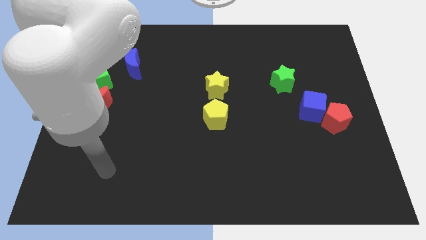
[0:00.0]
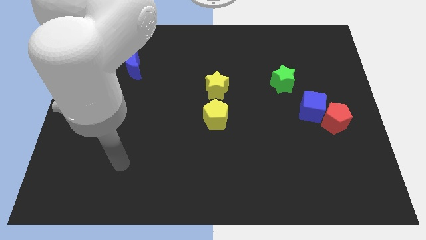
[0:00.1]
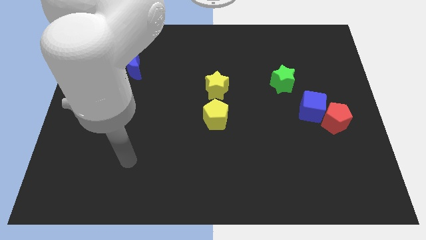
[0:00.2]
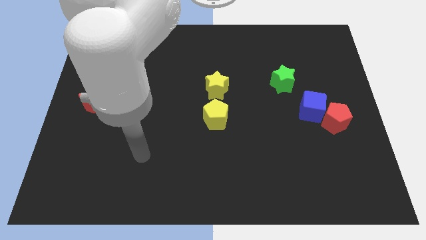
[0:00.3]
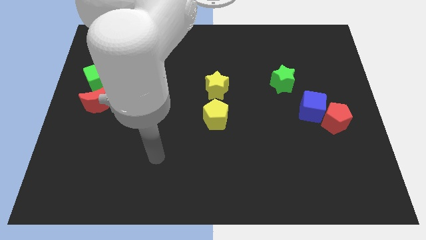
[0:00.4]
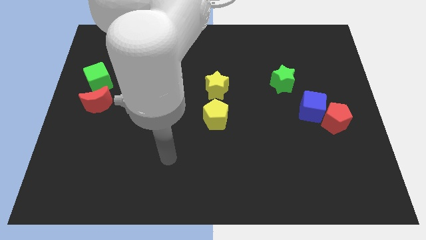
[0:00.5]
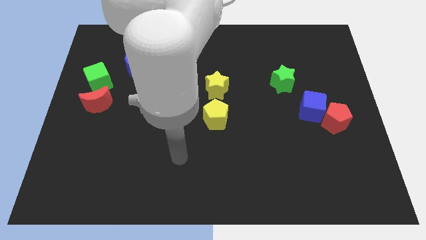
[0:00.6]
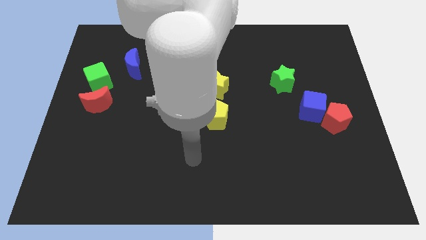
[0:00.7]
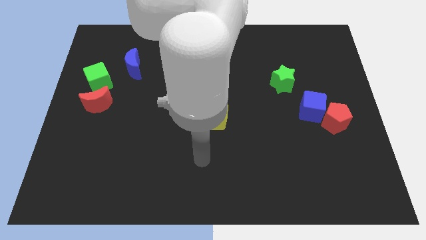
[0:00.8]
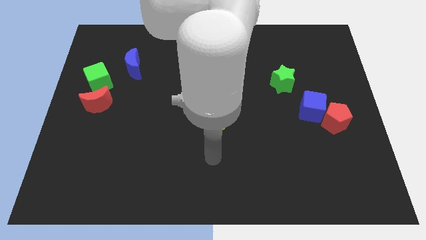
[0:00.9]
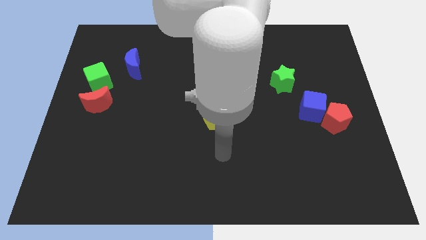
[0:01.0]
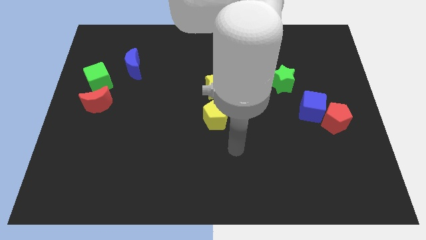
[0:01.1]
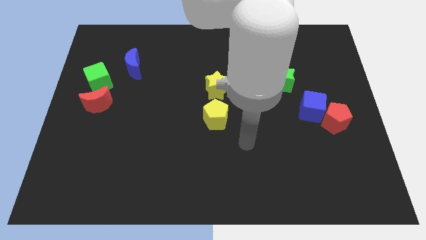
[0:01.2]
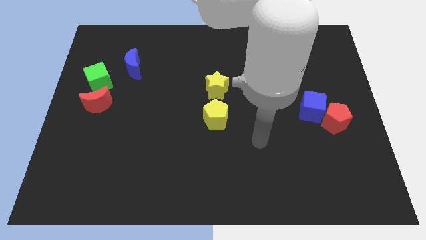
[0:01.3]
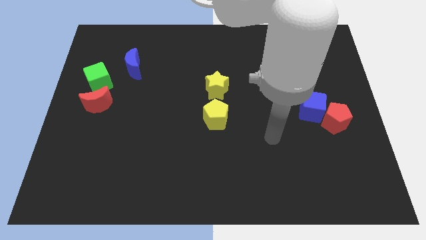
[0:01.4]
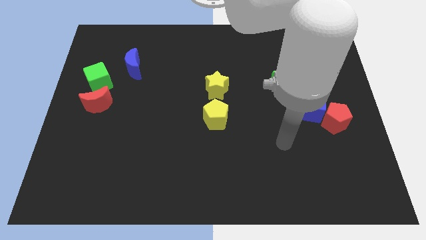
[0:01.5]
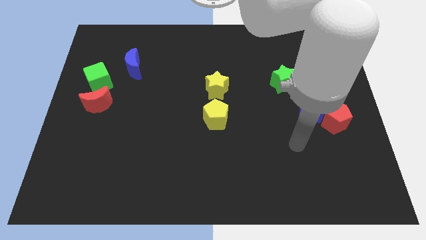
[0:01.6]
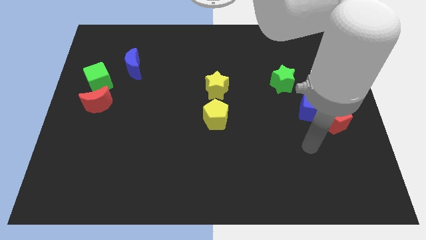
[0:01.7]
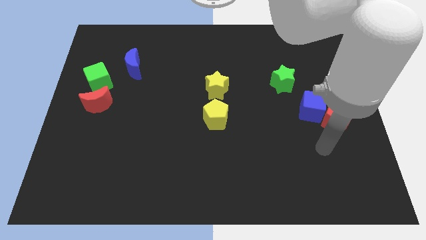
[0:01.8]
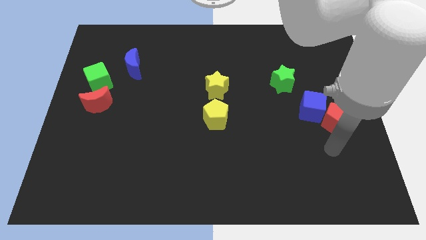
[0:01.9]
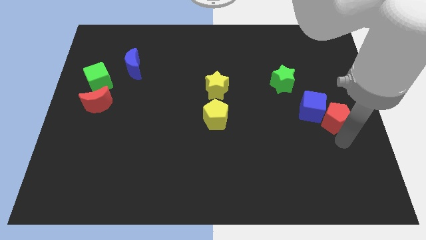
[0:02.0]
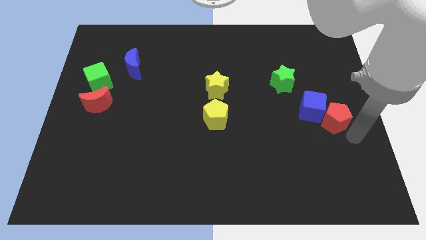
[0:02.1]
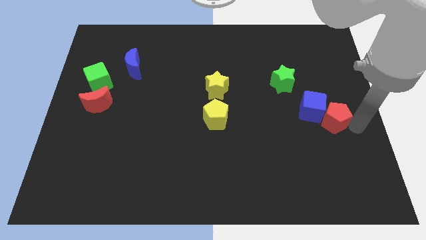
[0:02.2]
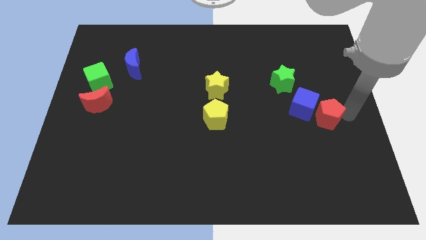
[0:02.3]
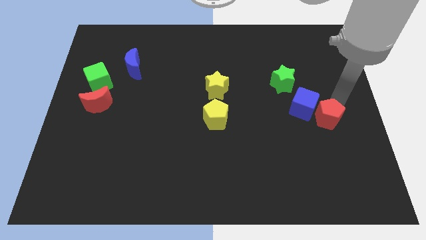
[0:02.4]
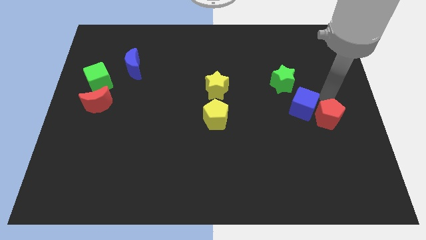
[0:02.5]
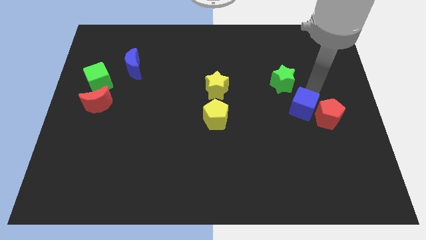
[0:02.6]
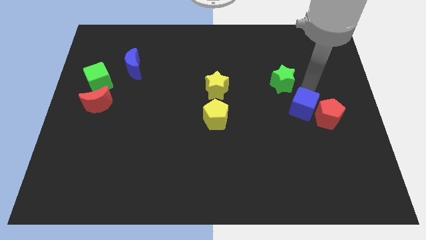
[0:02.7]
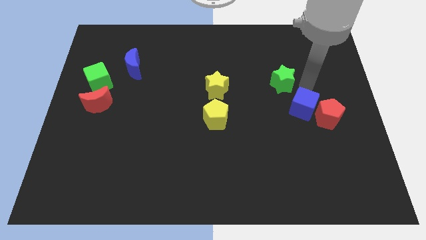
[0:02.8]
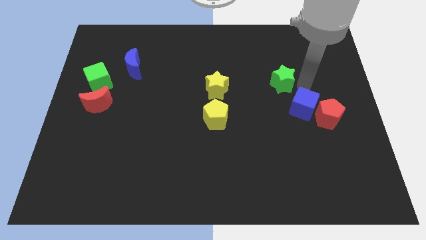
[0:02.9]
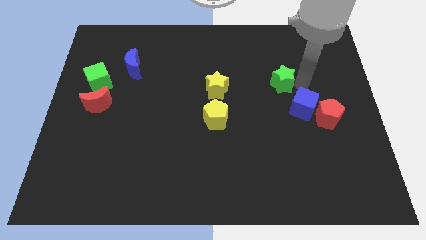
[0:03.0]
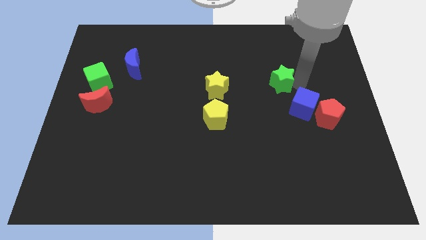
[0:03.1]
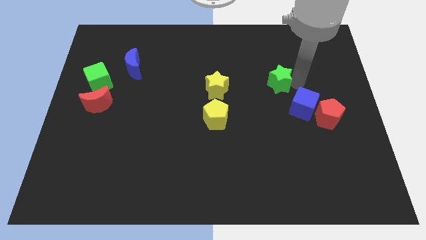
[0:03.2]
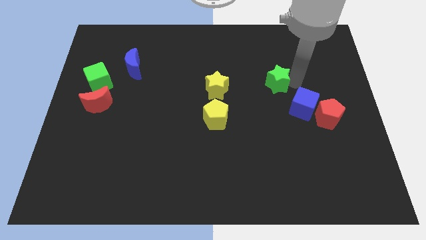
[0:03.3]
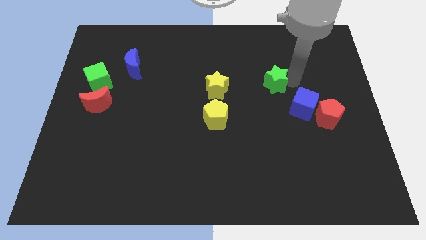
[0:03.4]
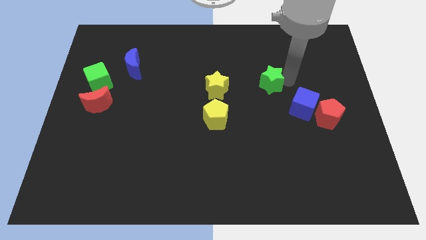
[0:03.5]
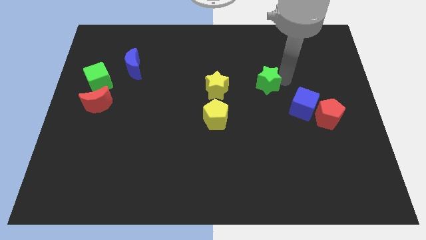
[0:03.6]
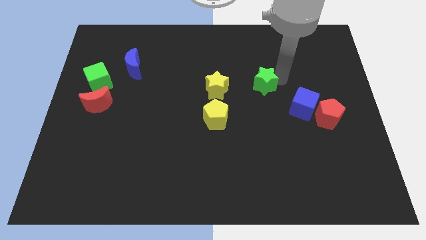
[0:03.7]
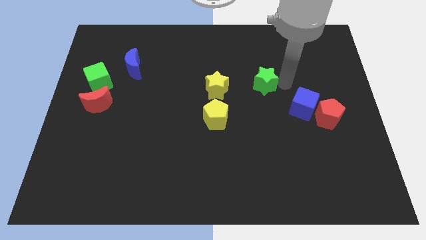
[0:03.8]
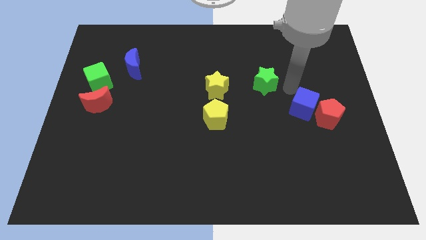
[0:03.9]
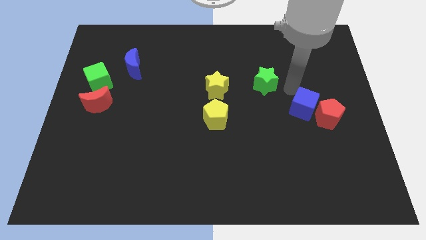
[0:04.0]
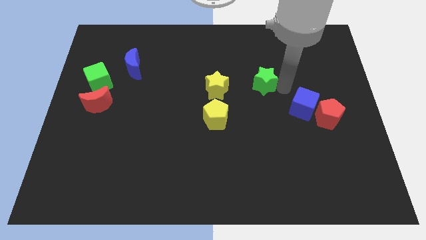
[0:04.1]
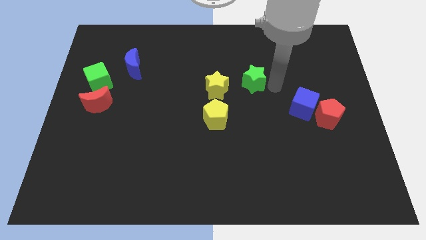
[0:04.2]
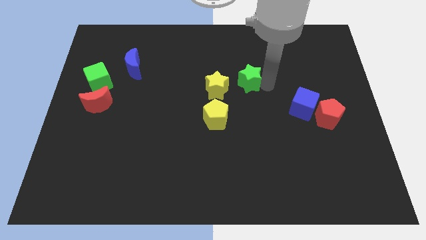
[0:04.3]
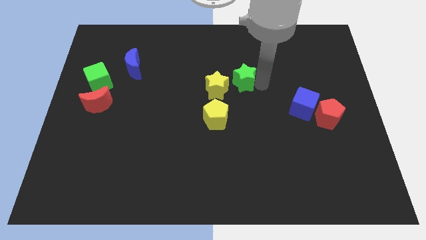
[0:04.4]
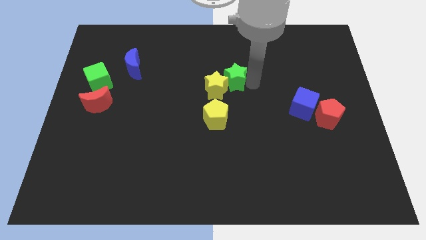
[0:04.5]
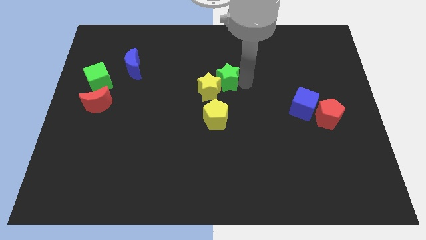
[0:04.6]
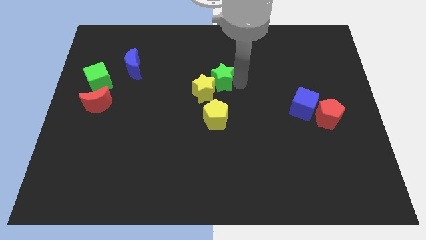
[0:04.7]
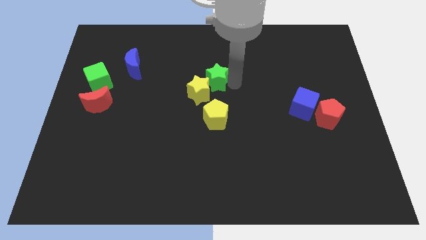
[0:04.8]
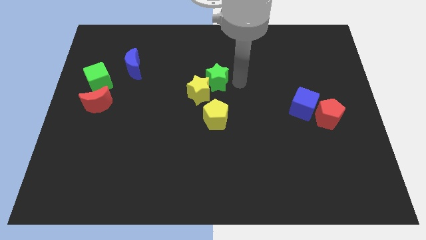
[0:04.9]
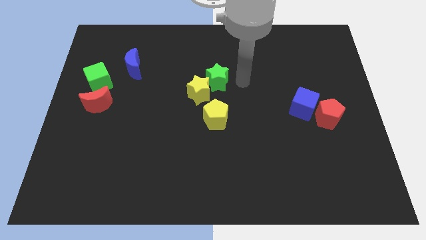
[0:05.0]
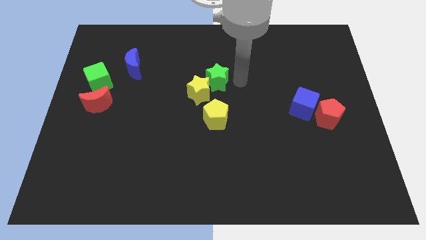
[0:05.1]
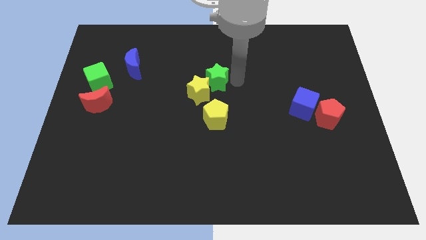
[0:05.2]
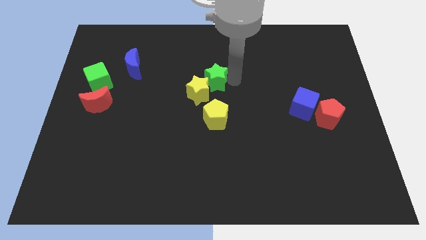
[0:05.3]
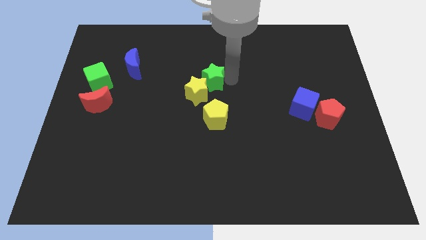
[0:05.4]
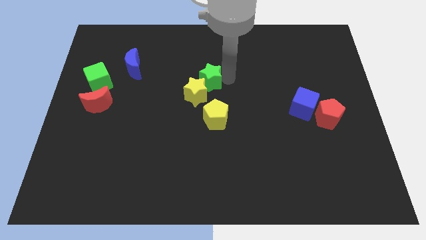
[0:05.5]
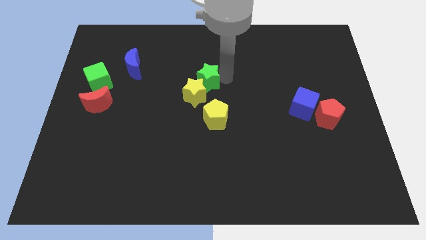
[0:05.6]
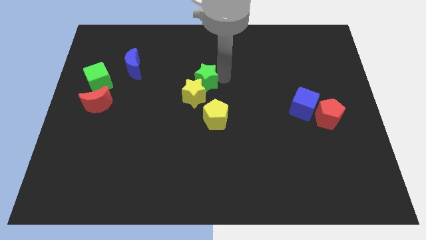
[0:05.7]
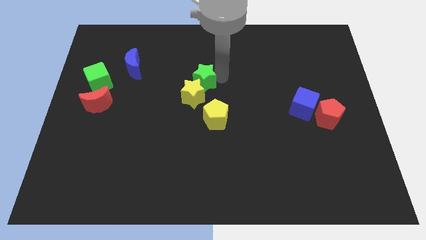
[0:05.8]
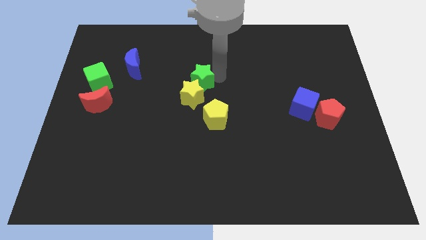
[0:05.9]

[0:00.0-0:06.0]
slide the green star left

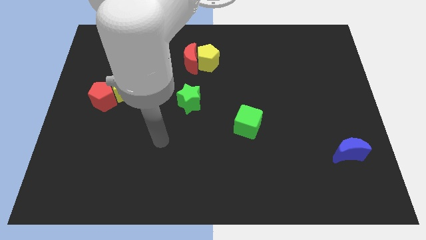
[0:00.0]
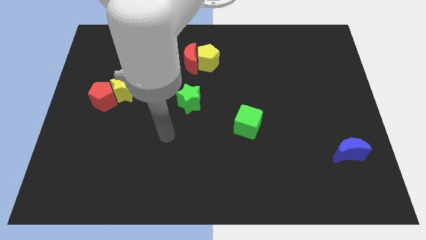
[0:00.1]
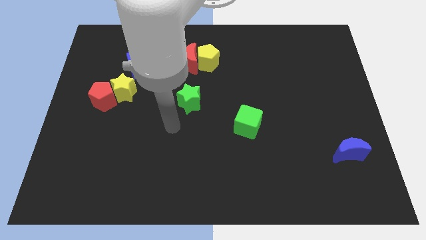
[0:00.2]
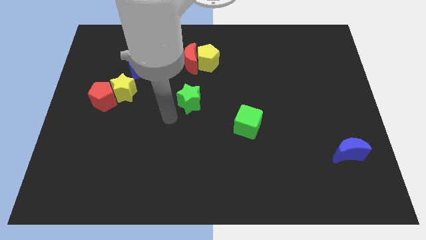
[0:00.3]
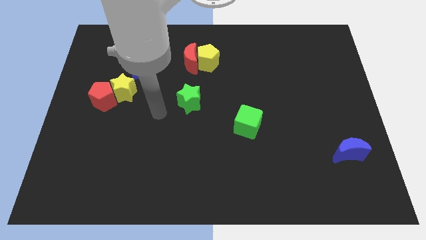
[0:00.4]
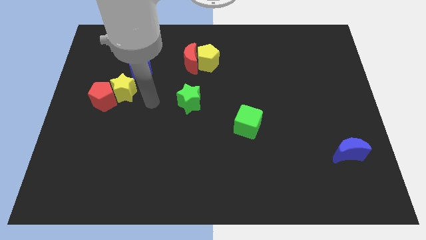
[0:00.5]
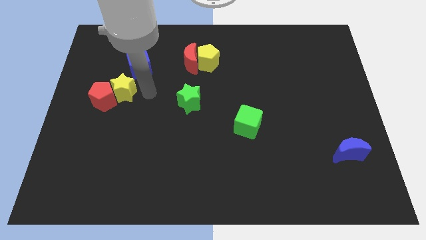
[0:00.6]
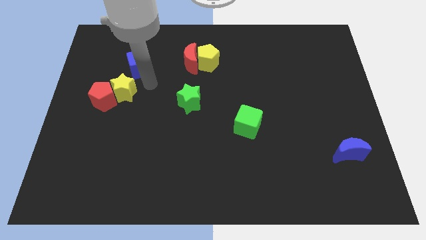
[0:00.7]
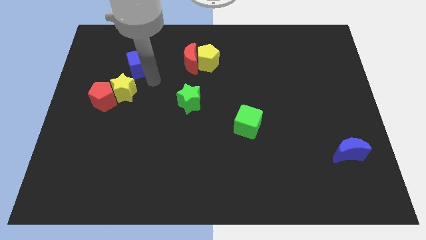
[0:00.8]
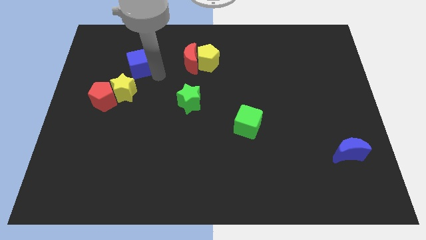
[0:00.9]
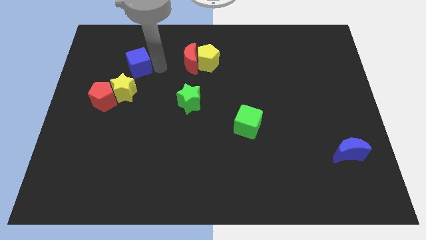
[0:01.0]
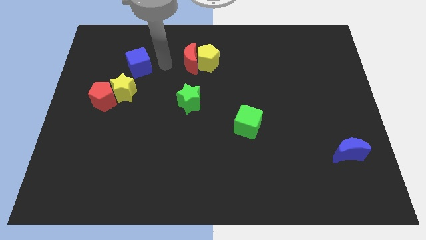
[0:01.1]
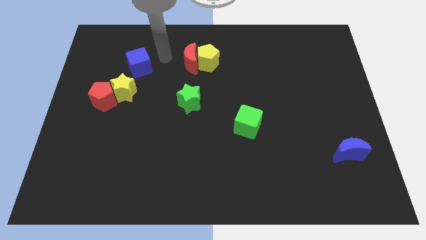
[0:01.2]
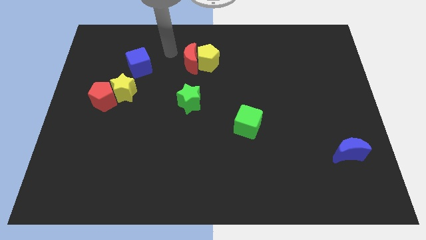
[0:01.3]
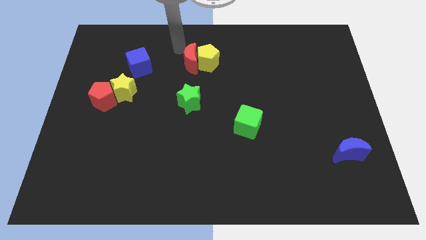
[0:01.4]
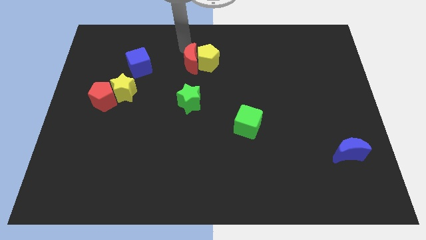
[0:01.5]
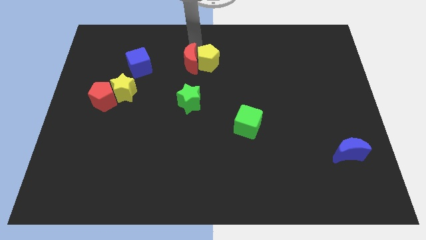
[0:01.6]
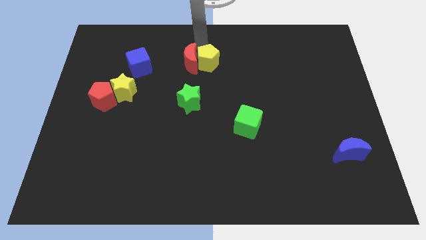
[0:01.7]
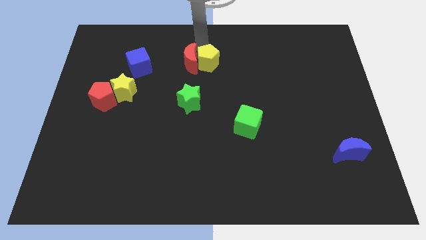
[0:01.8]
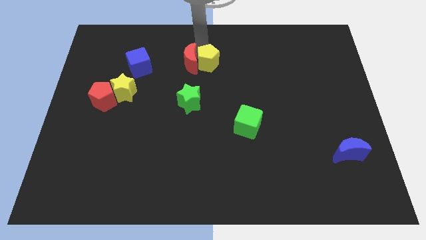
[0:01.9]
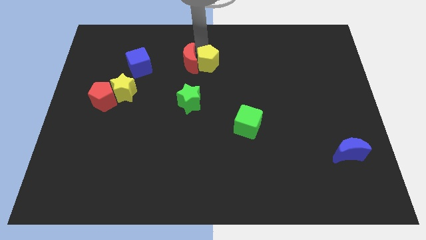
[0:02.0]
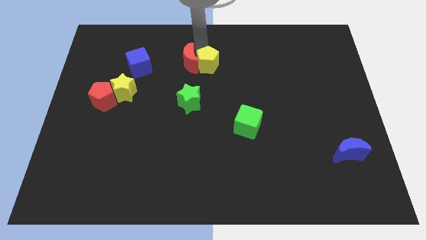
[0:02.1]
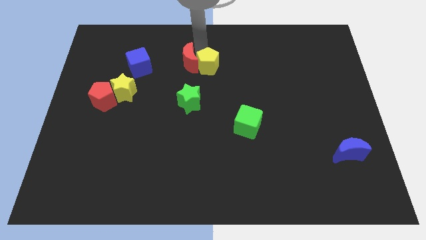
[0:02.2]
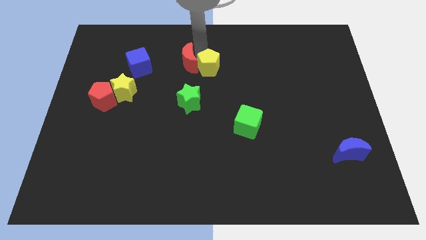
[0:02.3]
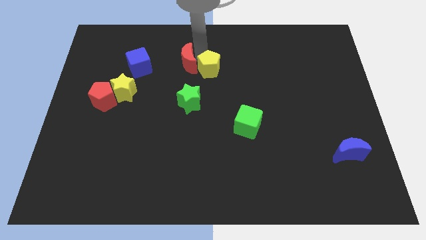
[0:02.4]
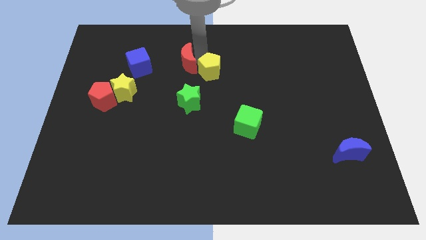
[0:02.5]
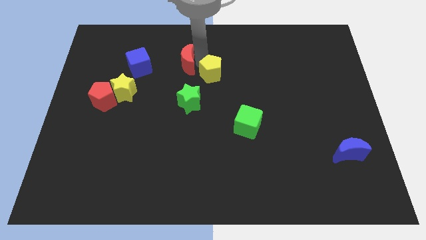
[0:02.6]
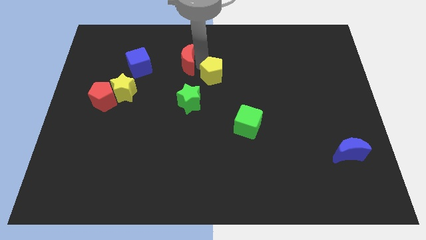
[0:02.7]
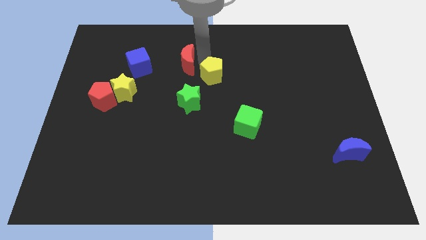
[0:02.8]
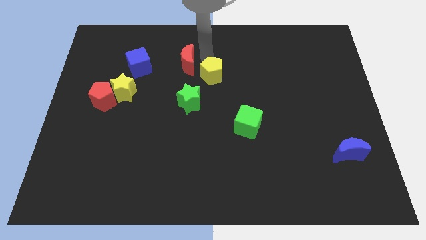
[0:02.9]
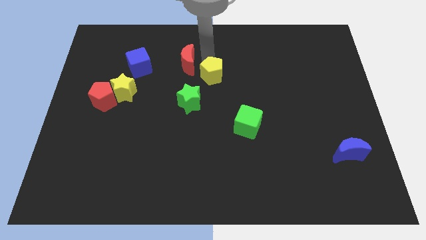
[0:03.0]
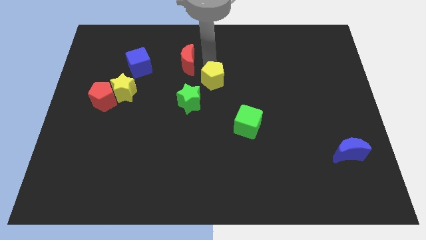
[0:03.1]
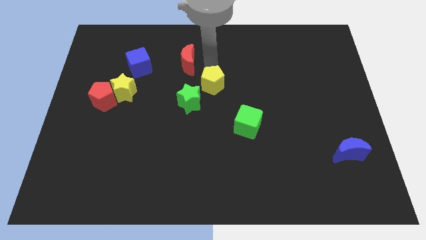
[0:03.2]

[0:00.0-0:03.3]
slide the yellow pentagon down somewhat
